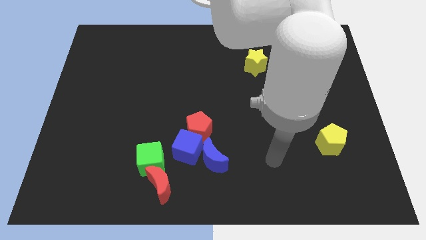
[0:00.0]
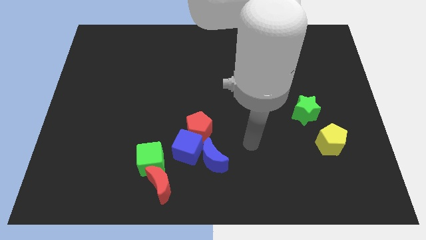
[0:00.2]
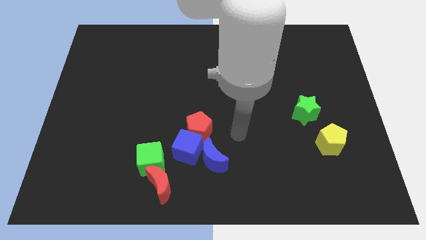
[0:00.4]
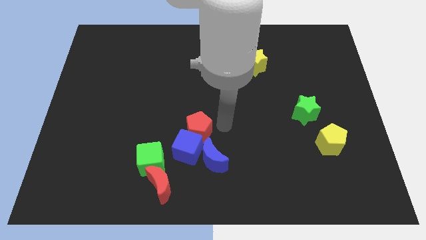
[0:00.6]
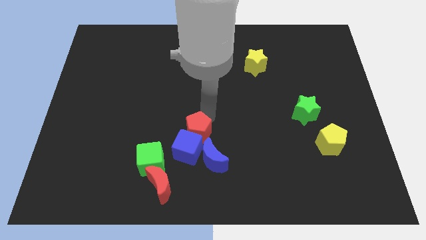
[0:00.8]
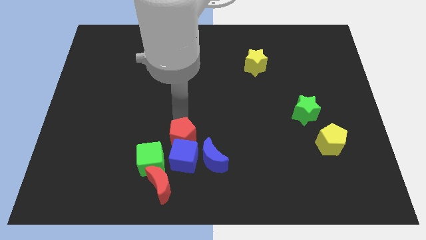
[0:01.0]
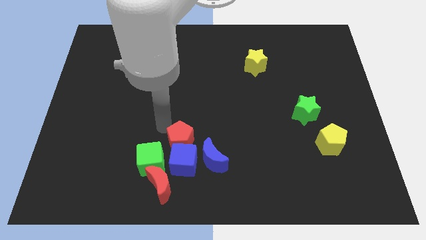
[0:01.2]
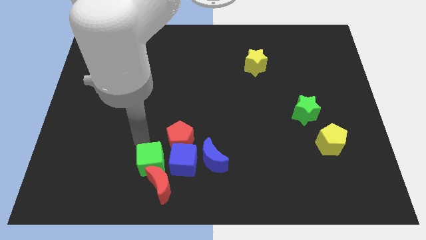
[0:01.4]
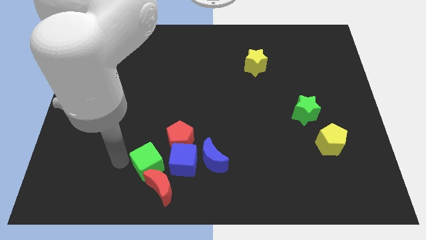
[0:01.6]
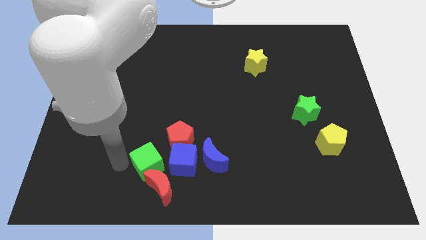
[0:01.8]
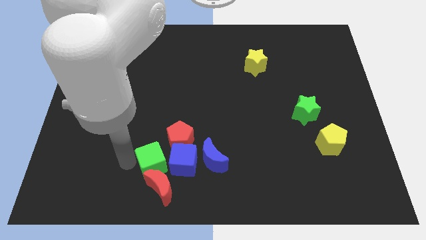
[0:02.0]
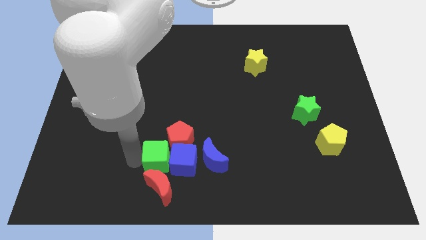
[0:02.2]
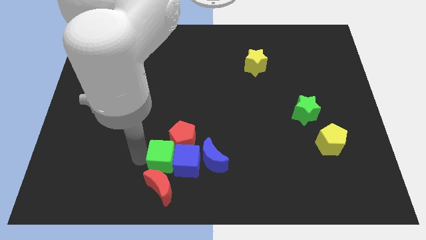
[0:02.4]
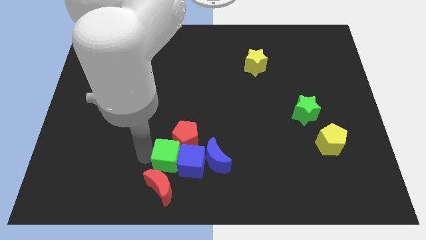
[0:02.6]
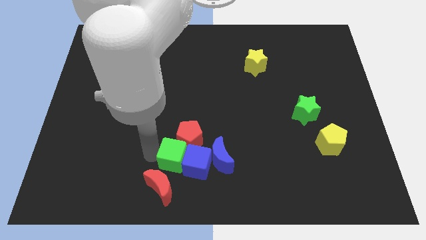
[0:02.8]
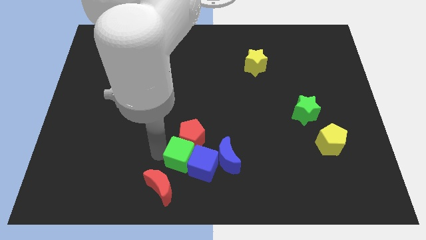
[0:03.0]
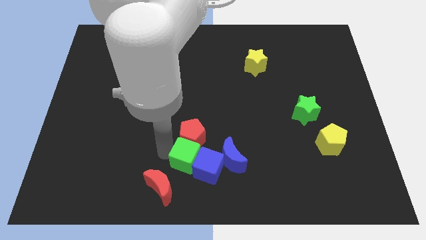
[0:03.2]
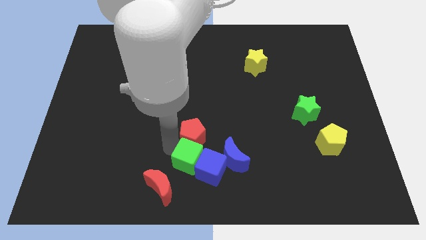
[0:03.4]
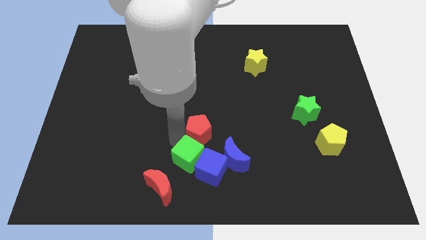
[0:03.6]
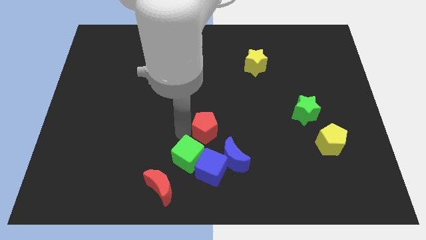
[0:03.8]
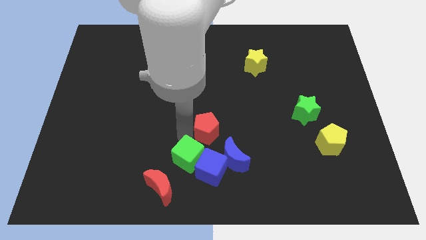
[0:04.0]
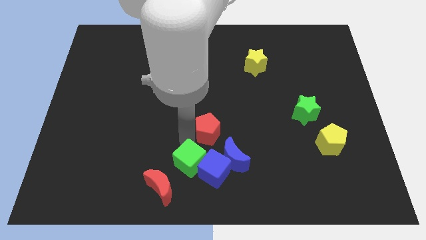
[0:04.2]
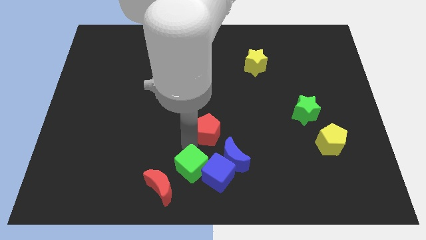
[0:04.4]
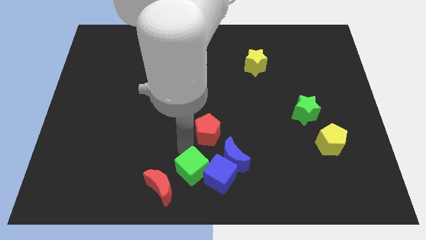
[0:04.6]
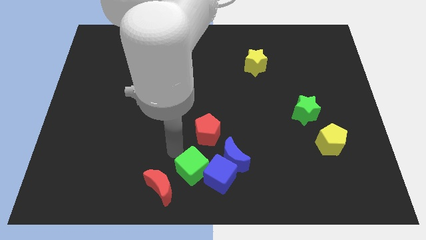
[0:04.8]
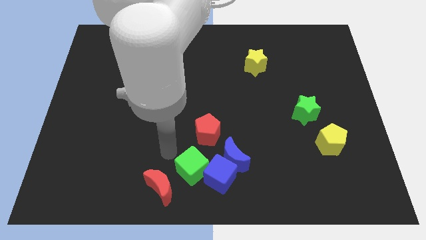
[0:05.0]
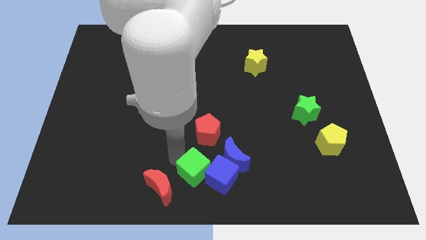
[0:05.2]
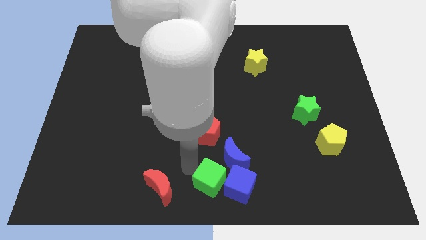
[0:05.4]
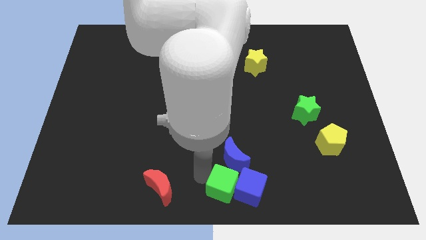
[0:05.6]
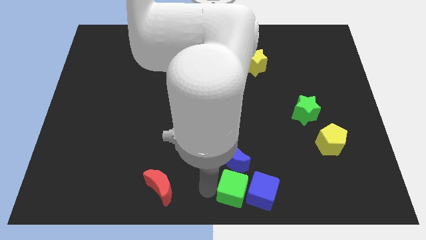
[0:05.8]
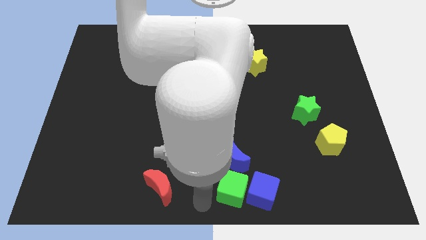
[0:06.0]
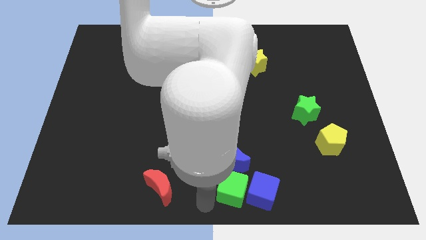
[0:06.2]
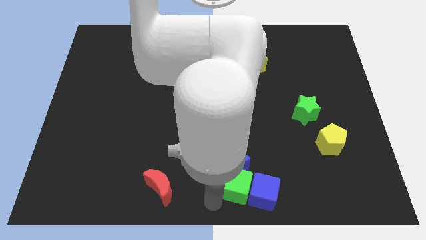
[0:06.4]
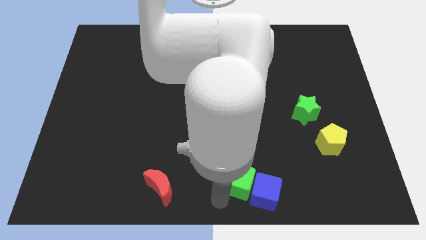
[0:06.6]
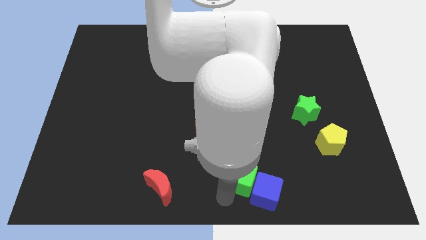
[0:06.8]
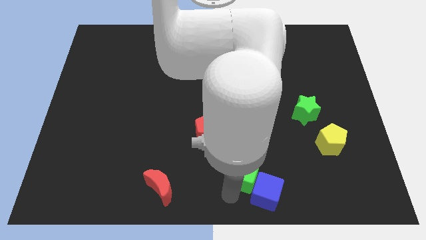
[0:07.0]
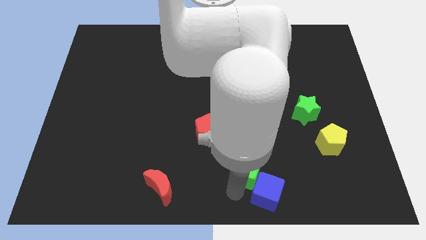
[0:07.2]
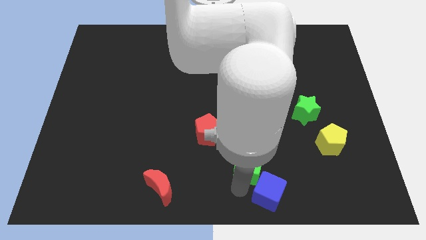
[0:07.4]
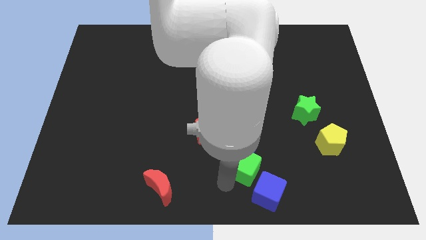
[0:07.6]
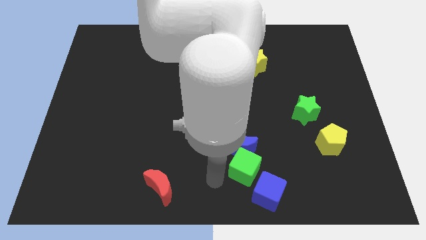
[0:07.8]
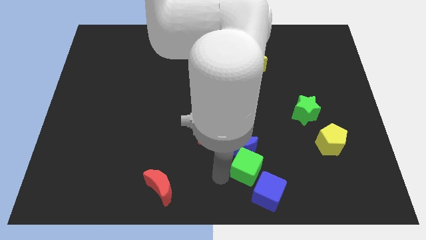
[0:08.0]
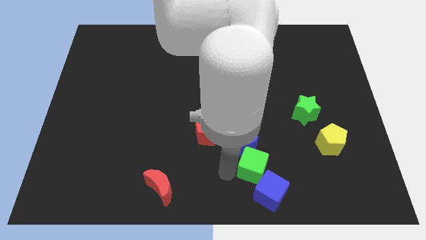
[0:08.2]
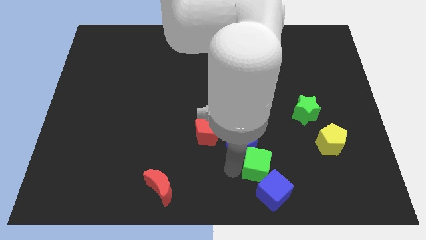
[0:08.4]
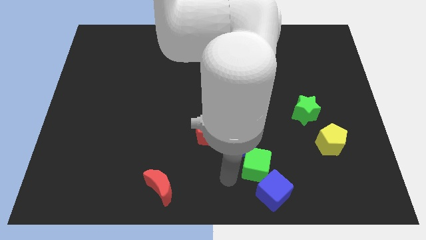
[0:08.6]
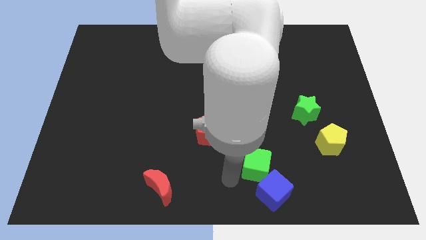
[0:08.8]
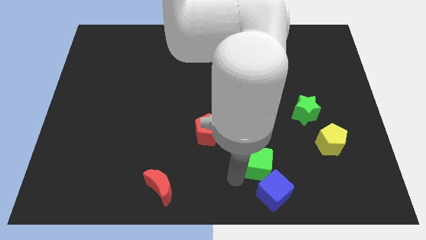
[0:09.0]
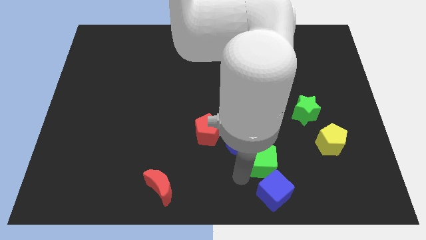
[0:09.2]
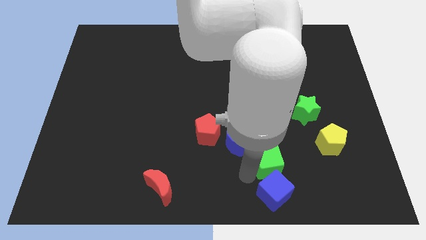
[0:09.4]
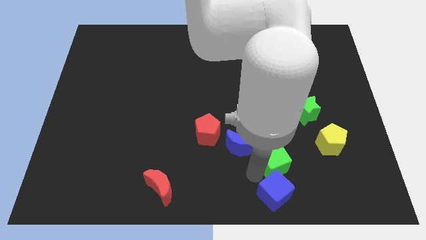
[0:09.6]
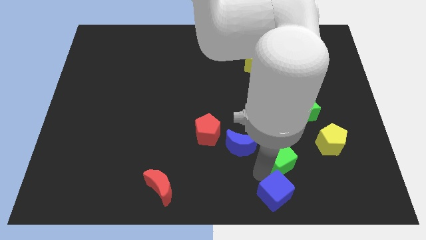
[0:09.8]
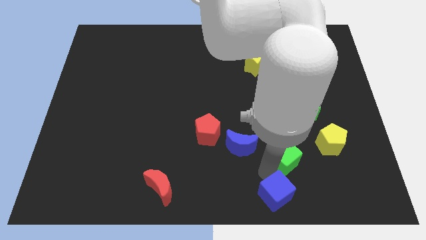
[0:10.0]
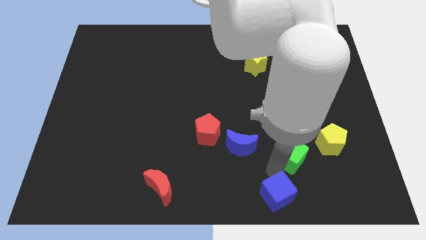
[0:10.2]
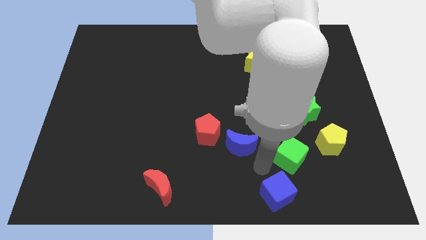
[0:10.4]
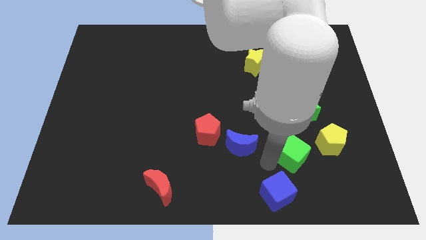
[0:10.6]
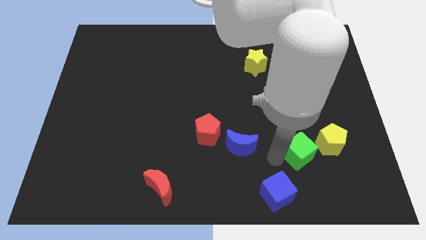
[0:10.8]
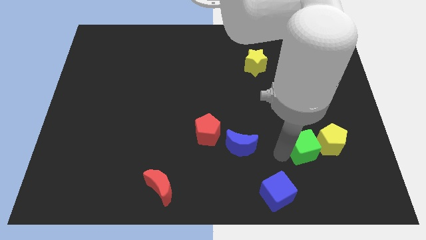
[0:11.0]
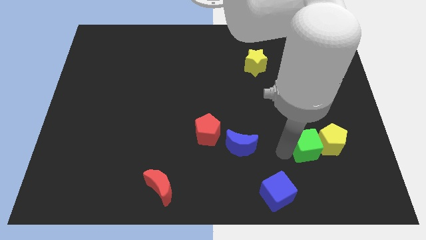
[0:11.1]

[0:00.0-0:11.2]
put the green cube towards the yellow pentagon

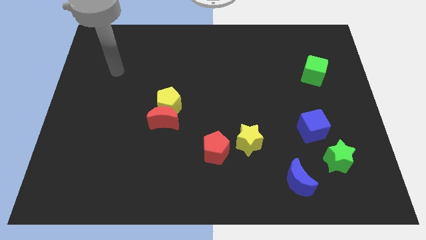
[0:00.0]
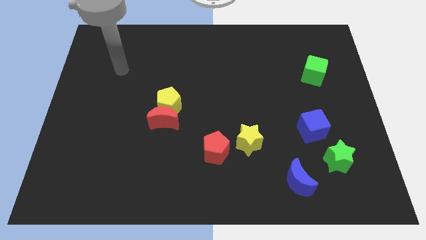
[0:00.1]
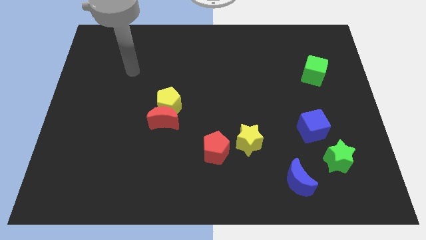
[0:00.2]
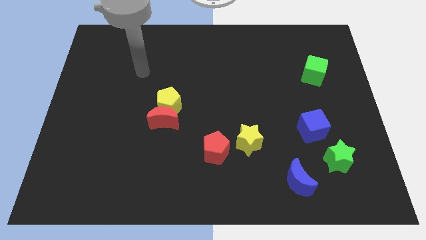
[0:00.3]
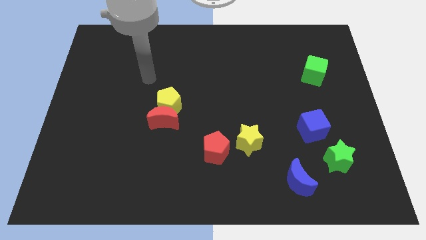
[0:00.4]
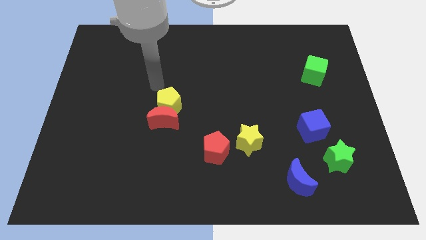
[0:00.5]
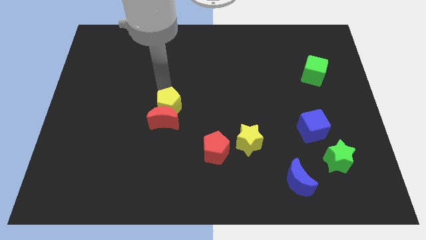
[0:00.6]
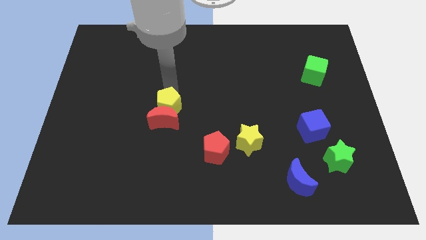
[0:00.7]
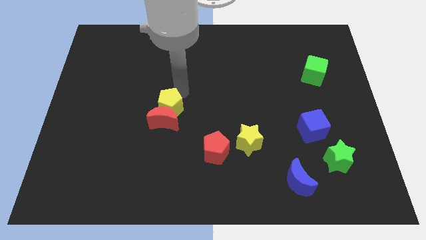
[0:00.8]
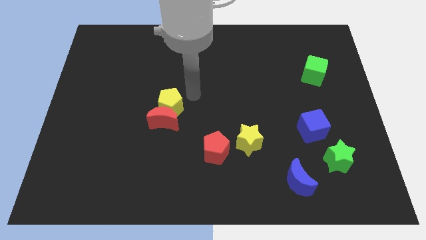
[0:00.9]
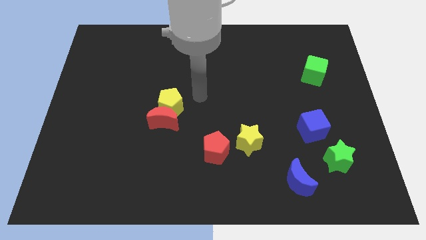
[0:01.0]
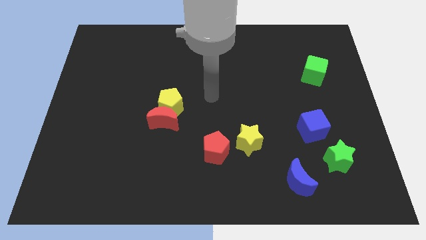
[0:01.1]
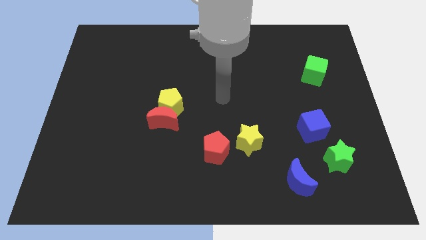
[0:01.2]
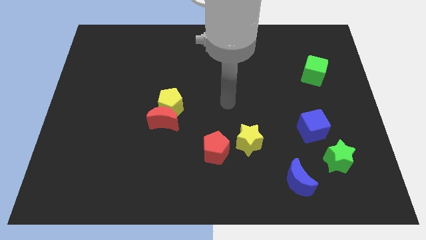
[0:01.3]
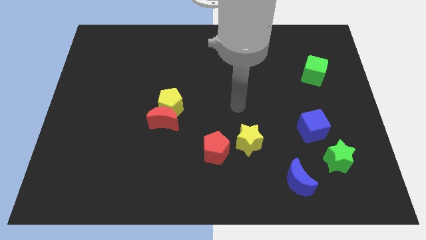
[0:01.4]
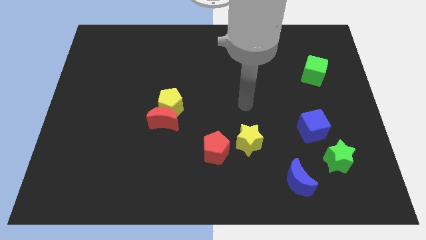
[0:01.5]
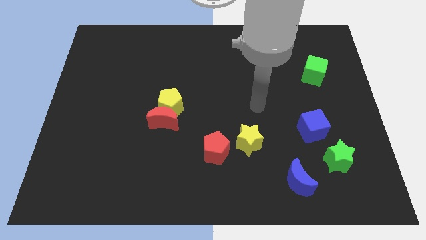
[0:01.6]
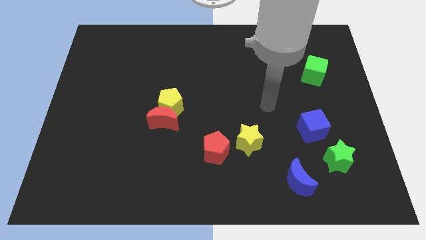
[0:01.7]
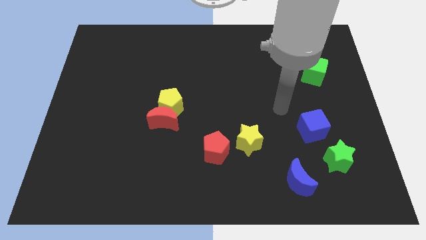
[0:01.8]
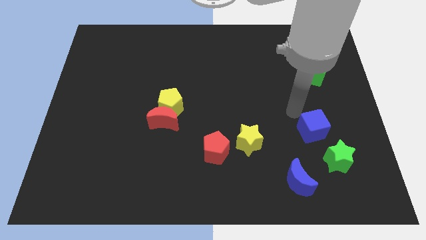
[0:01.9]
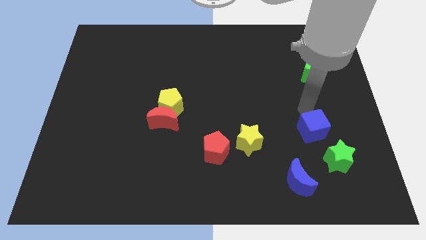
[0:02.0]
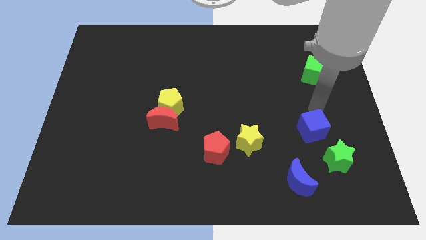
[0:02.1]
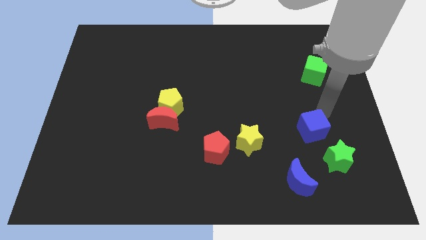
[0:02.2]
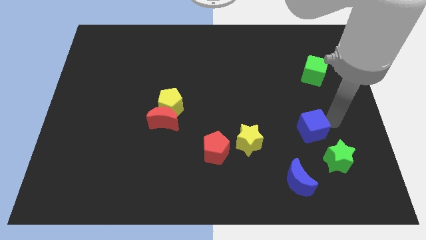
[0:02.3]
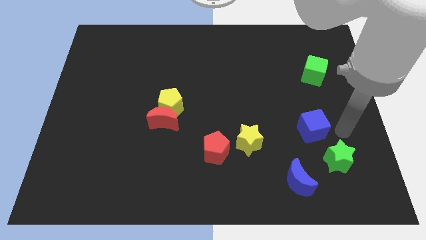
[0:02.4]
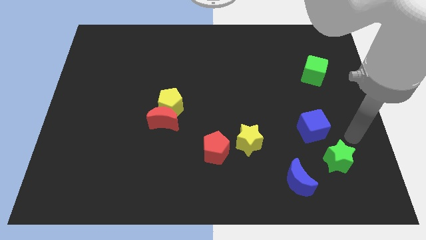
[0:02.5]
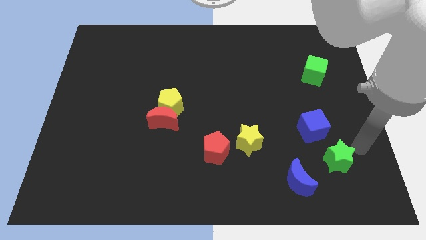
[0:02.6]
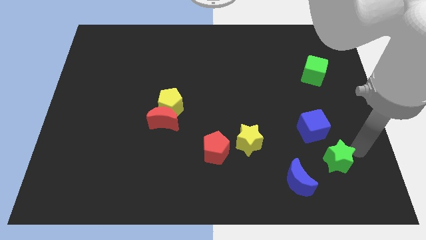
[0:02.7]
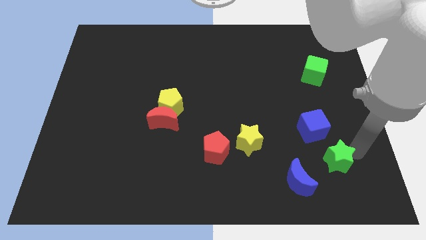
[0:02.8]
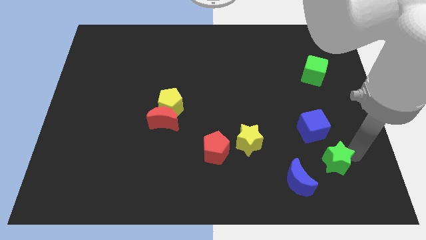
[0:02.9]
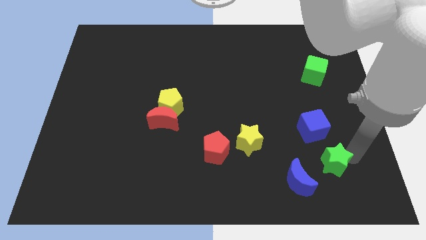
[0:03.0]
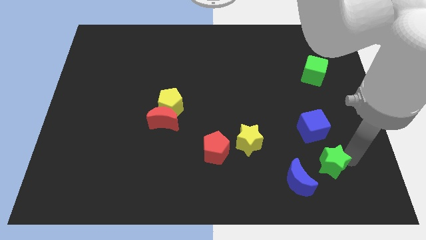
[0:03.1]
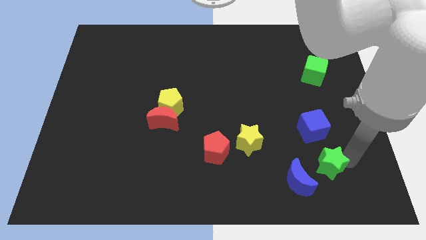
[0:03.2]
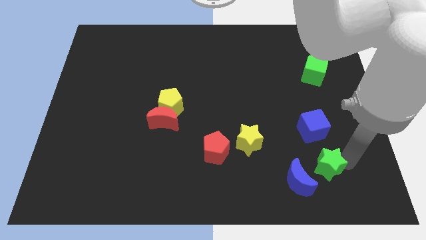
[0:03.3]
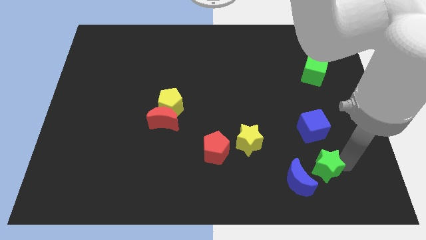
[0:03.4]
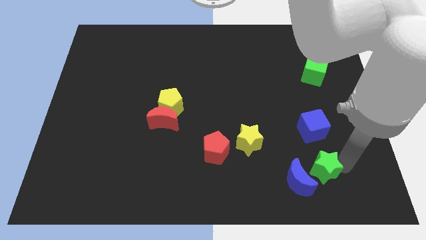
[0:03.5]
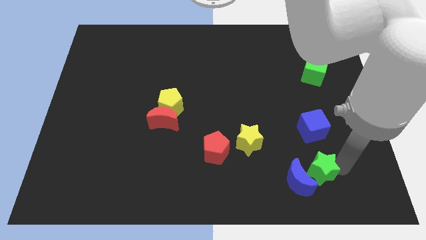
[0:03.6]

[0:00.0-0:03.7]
move the green star towards the blue moon
